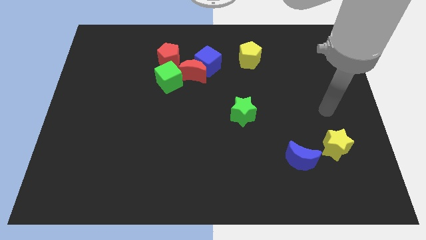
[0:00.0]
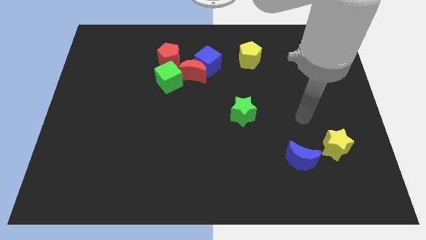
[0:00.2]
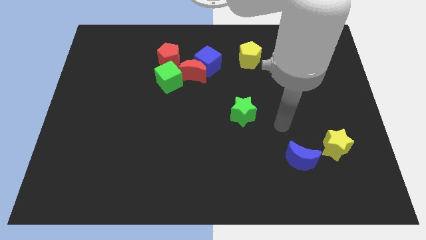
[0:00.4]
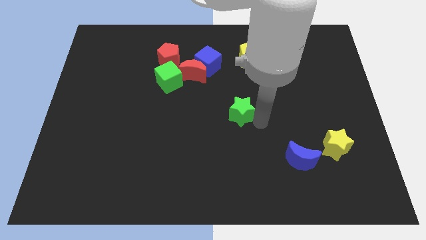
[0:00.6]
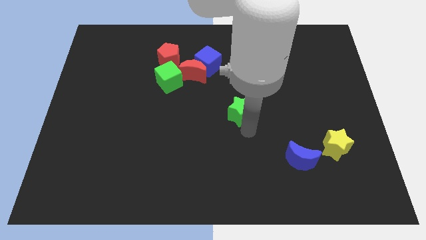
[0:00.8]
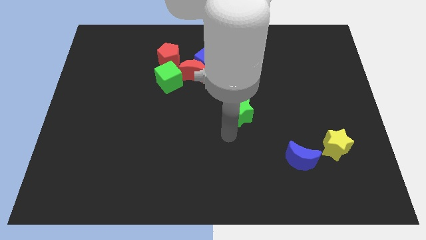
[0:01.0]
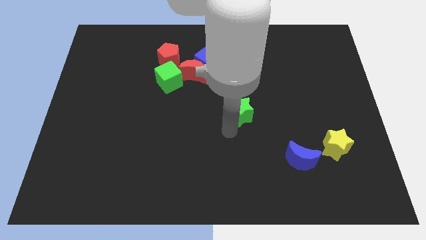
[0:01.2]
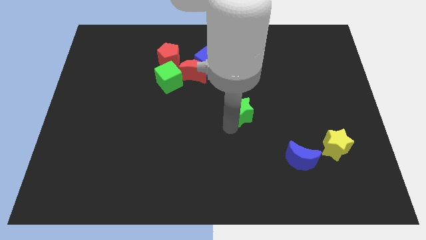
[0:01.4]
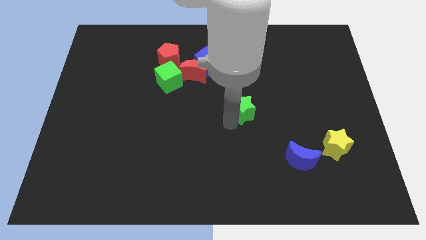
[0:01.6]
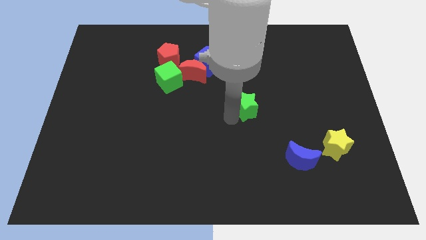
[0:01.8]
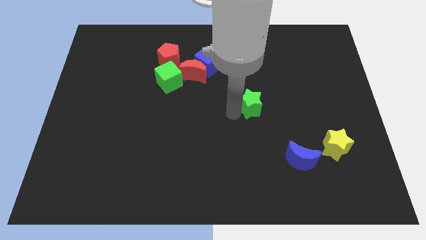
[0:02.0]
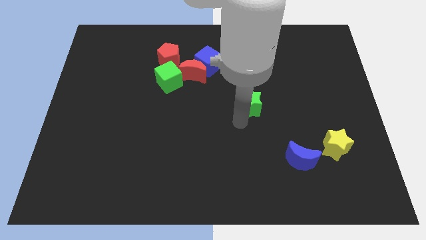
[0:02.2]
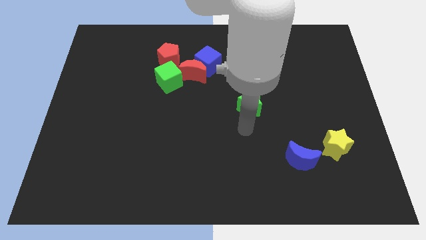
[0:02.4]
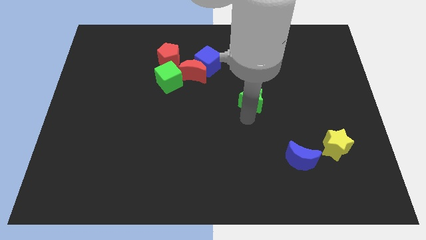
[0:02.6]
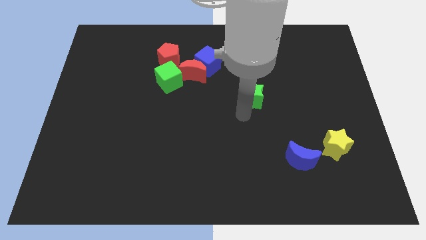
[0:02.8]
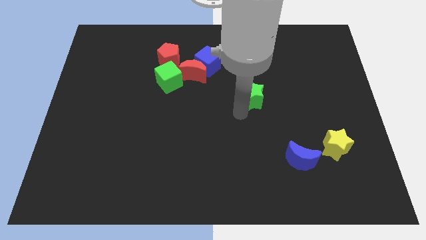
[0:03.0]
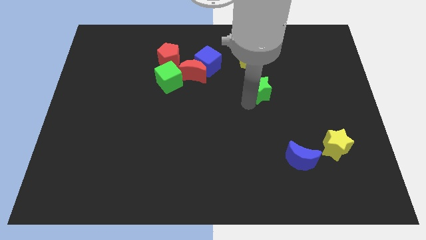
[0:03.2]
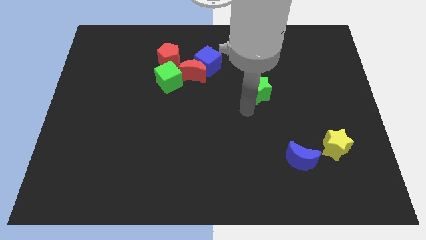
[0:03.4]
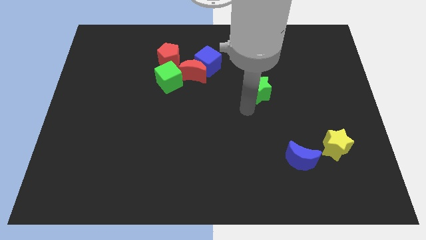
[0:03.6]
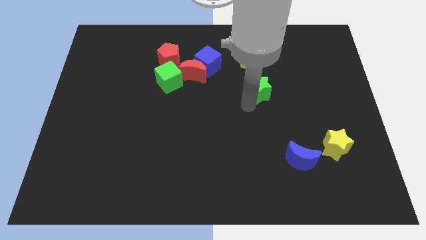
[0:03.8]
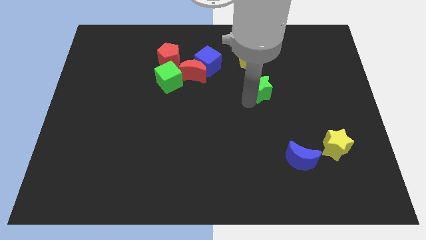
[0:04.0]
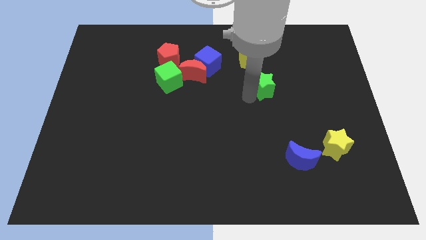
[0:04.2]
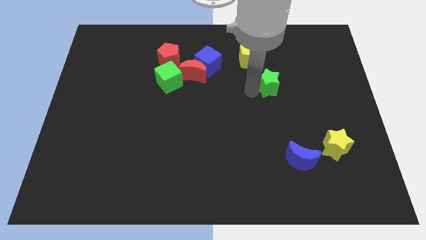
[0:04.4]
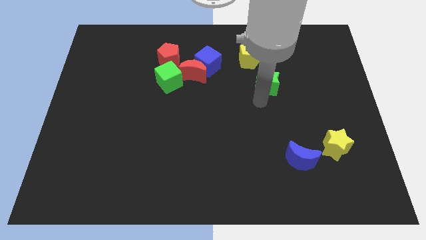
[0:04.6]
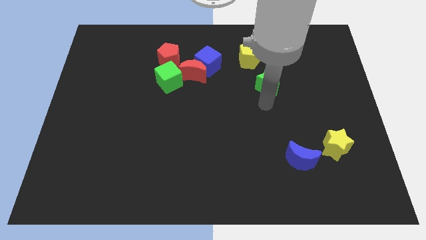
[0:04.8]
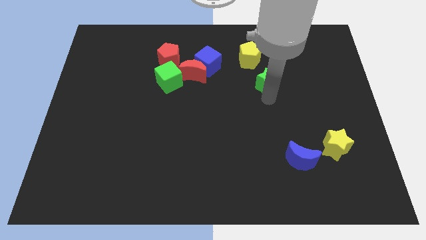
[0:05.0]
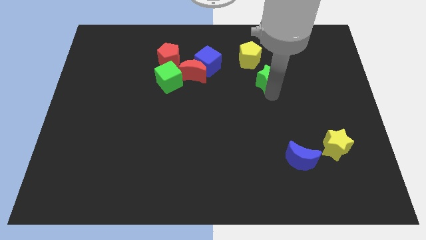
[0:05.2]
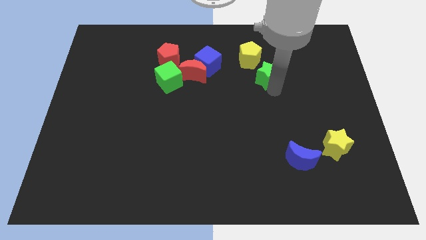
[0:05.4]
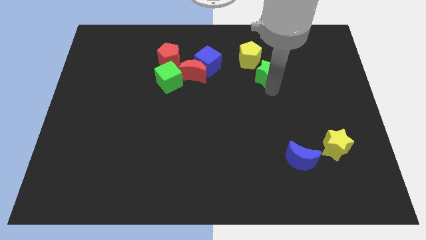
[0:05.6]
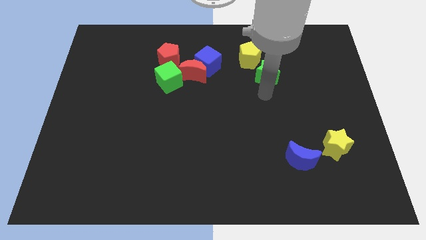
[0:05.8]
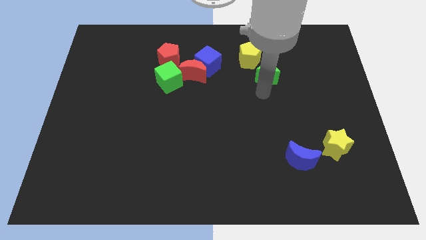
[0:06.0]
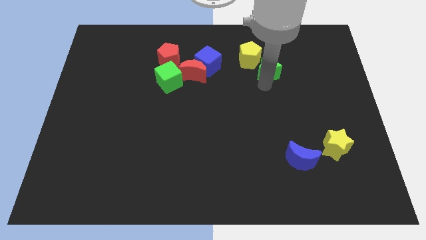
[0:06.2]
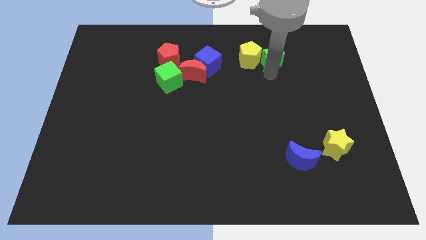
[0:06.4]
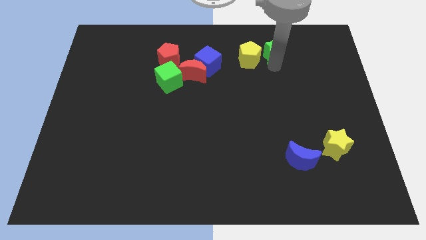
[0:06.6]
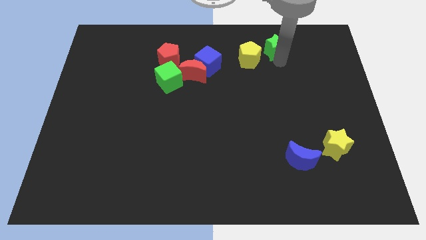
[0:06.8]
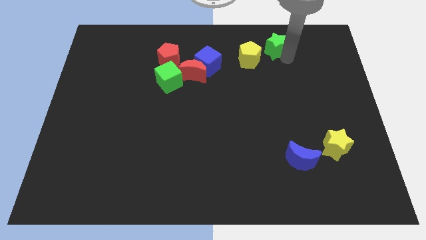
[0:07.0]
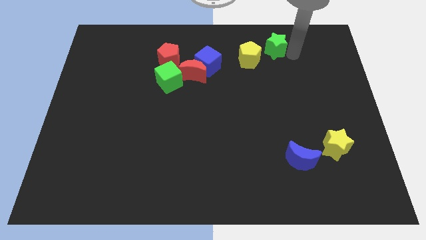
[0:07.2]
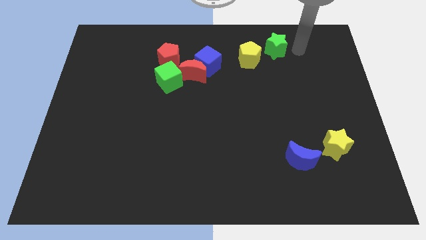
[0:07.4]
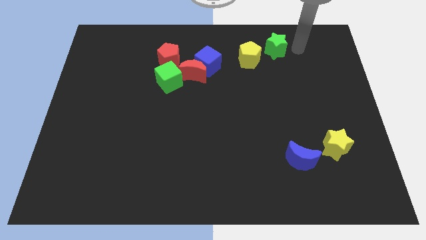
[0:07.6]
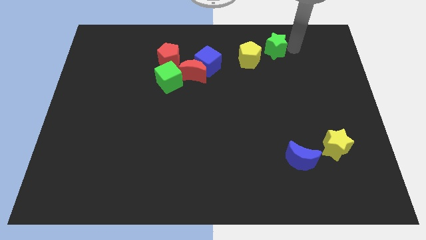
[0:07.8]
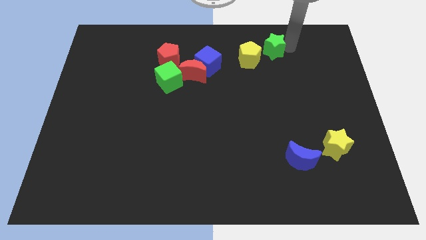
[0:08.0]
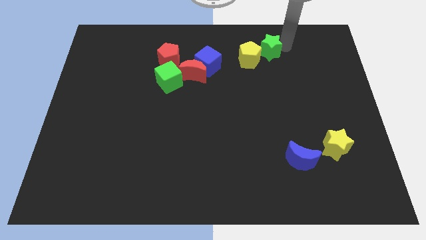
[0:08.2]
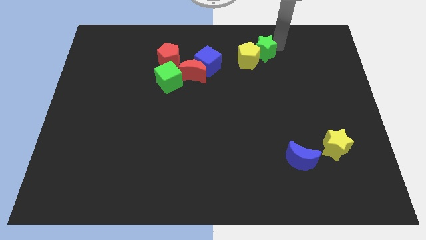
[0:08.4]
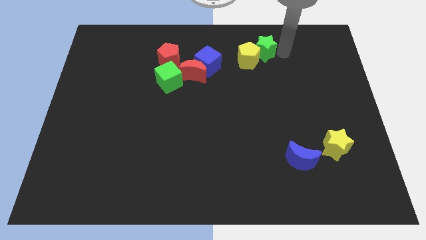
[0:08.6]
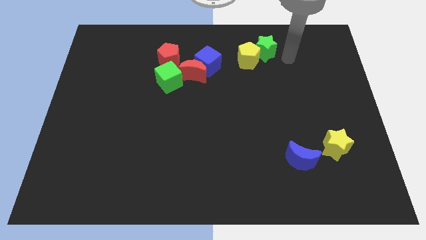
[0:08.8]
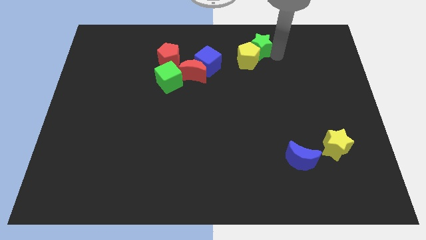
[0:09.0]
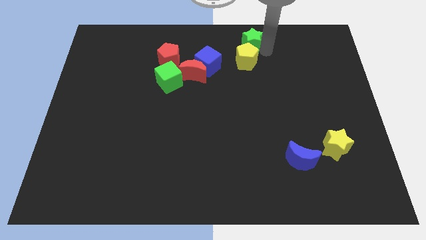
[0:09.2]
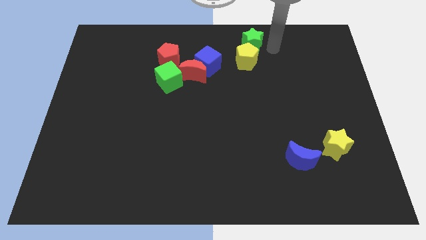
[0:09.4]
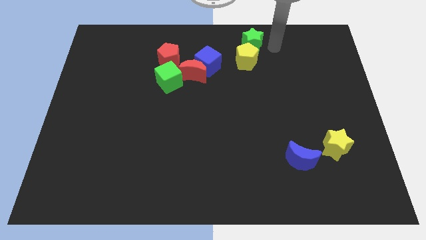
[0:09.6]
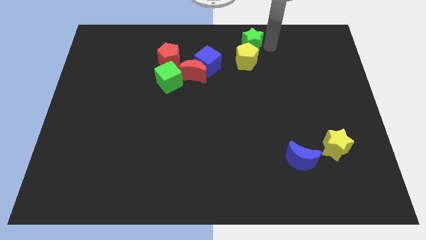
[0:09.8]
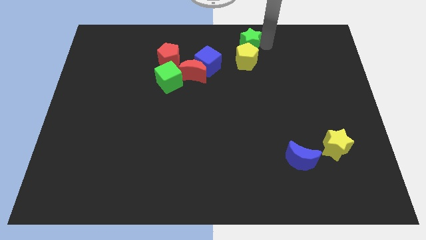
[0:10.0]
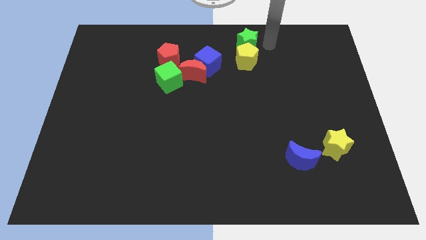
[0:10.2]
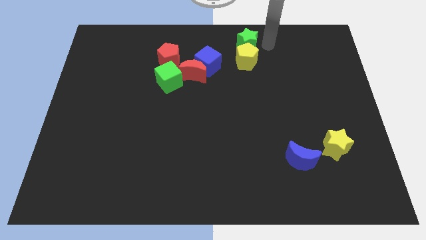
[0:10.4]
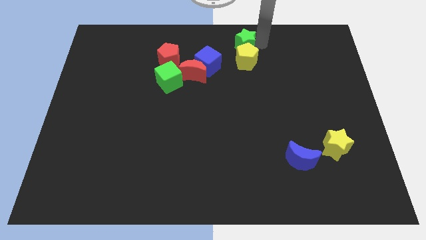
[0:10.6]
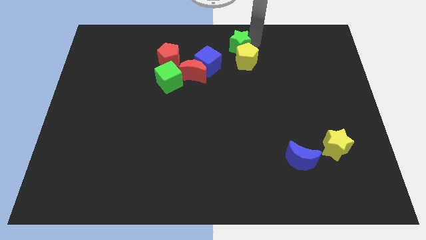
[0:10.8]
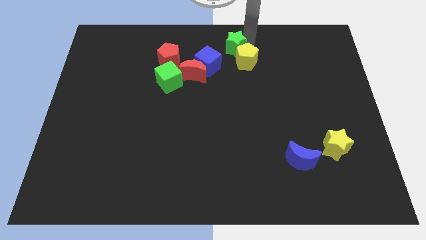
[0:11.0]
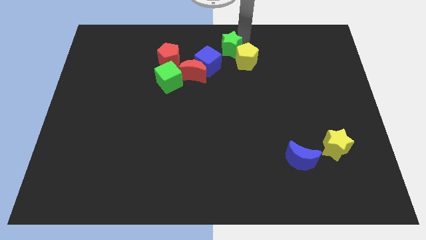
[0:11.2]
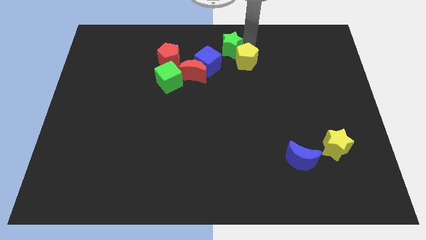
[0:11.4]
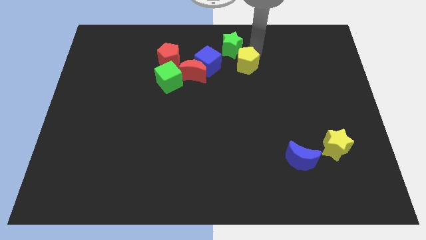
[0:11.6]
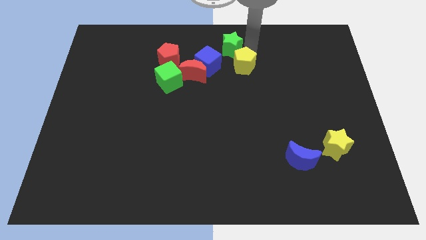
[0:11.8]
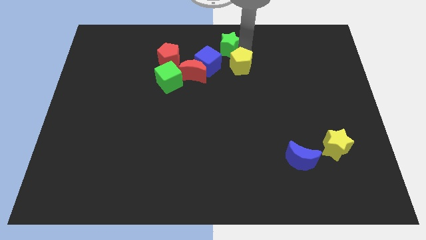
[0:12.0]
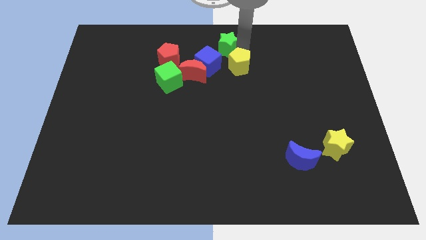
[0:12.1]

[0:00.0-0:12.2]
slide the green star diagonally up and to the right of the red moon

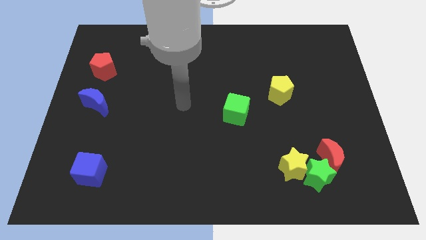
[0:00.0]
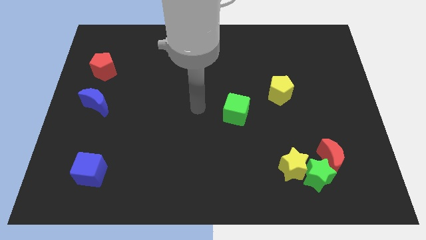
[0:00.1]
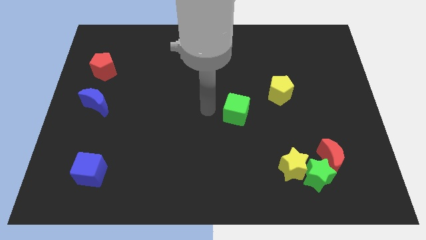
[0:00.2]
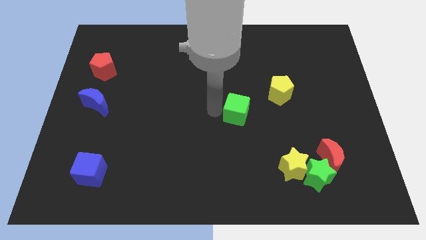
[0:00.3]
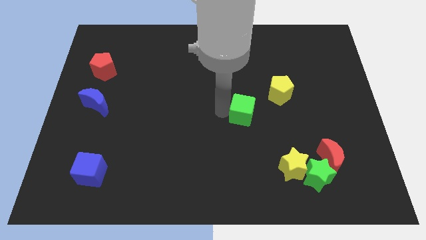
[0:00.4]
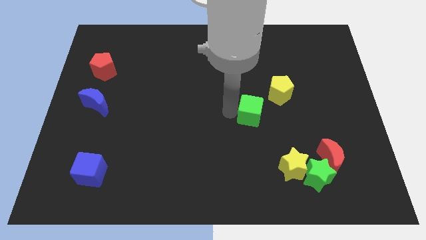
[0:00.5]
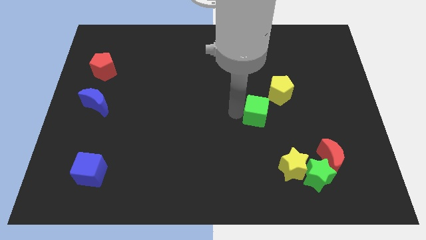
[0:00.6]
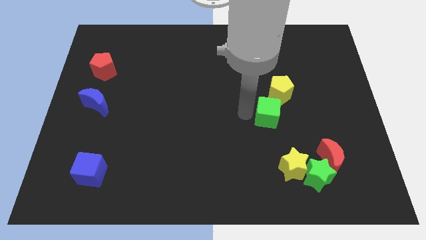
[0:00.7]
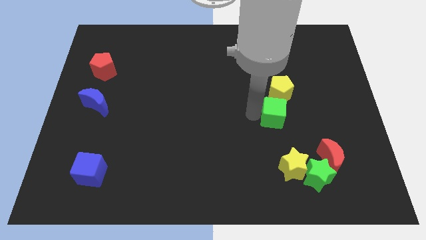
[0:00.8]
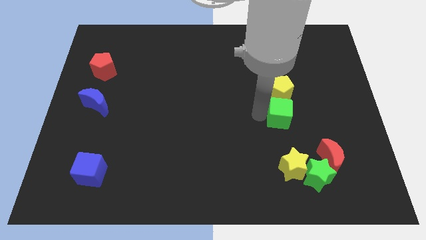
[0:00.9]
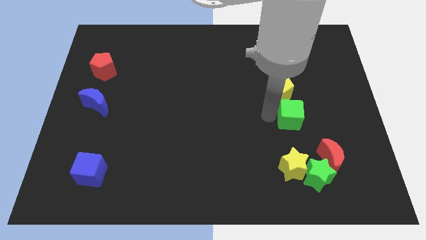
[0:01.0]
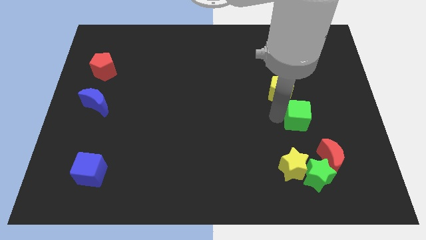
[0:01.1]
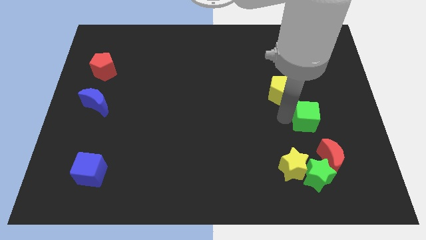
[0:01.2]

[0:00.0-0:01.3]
slide the green cube above the red moon
